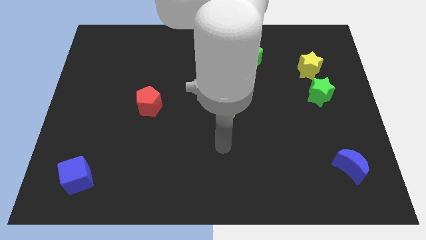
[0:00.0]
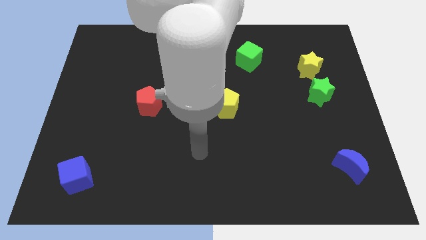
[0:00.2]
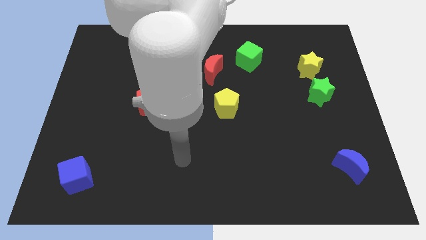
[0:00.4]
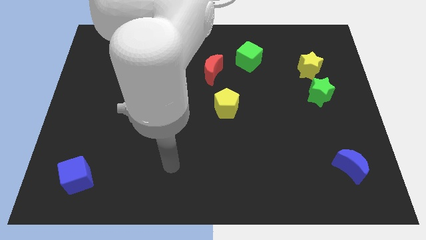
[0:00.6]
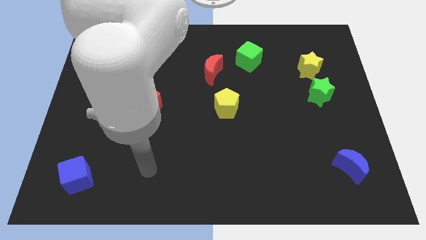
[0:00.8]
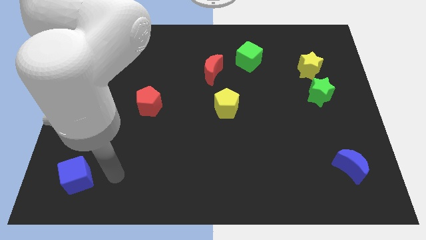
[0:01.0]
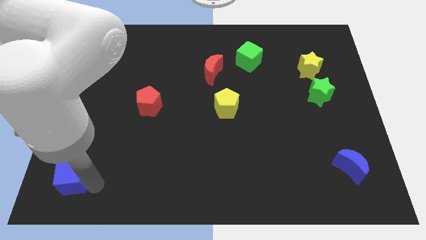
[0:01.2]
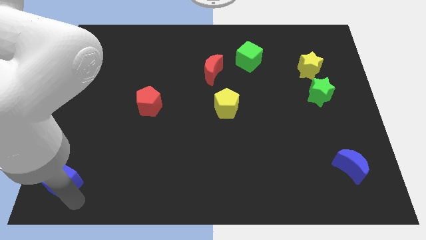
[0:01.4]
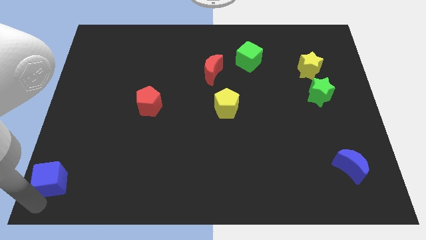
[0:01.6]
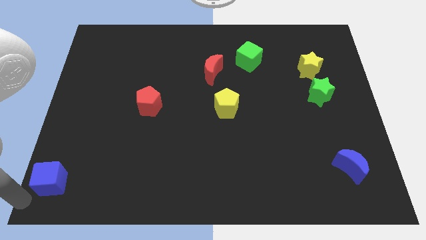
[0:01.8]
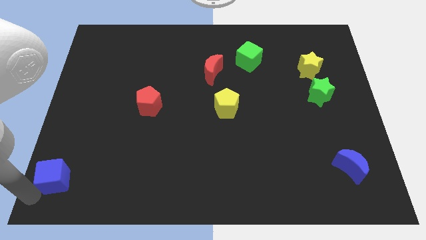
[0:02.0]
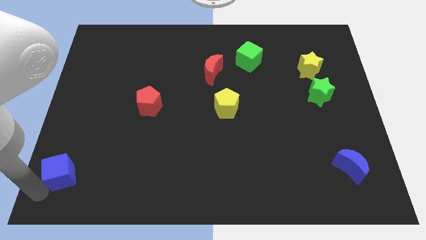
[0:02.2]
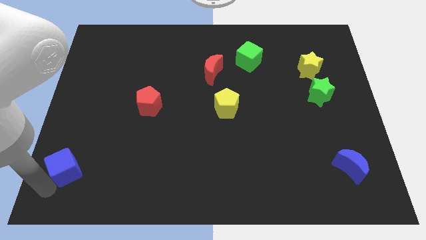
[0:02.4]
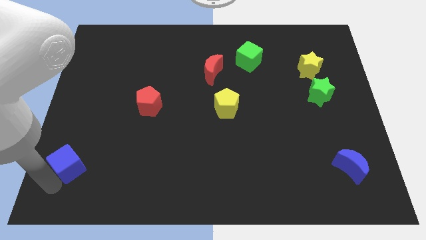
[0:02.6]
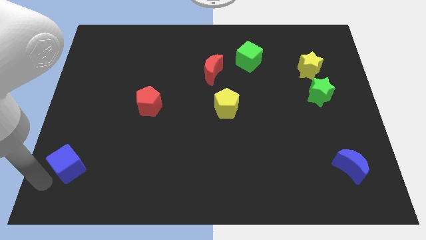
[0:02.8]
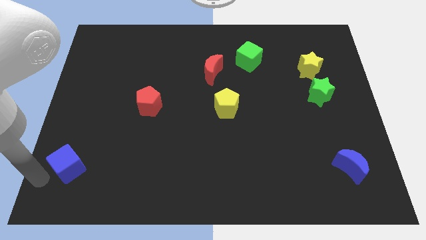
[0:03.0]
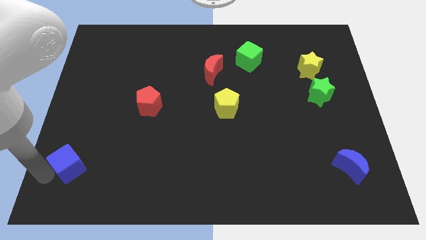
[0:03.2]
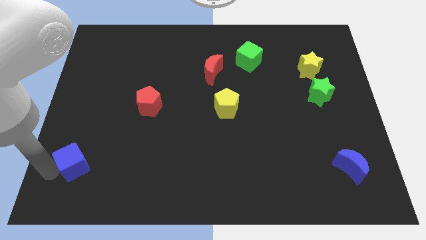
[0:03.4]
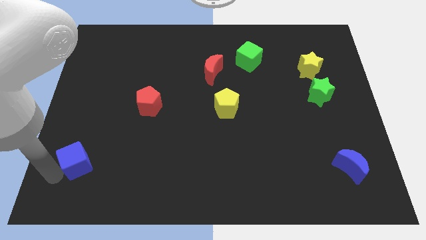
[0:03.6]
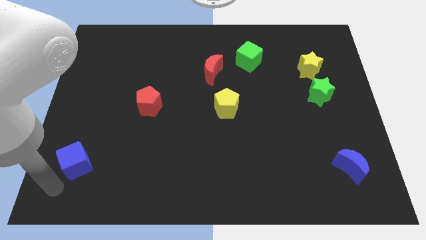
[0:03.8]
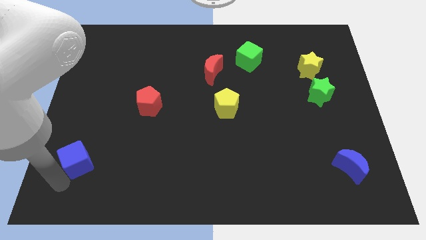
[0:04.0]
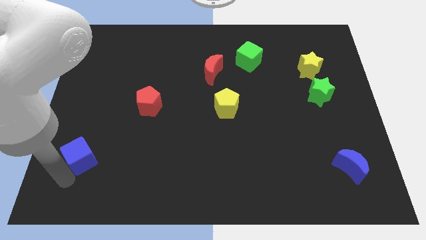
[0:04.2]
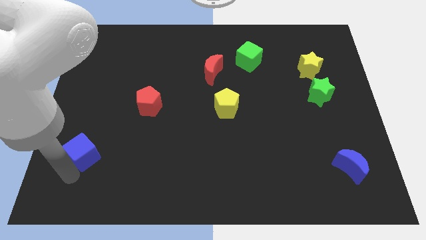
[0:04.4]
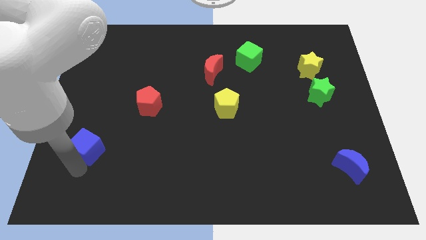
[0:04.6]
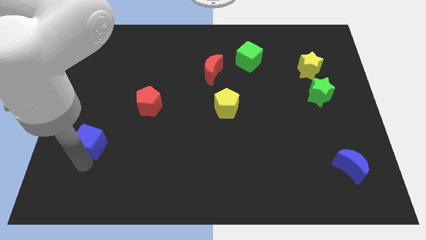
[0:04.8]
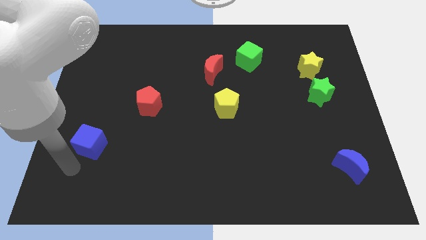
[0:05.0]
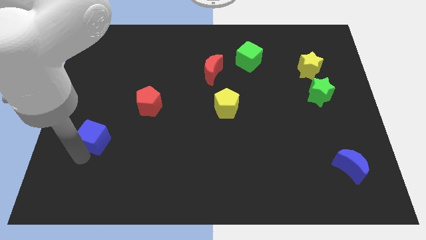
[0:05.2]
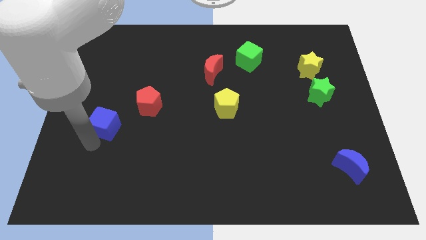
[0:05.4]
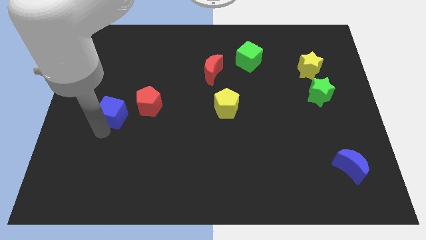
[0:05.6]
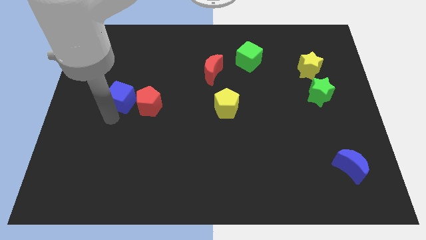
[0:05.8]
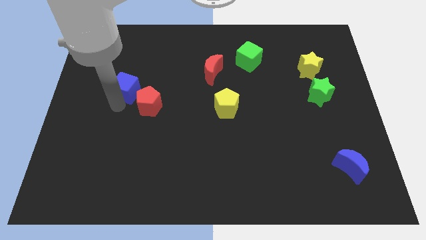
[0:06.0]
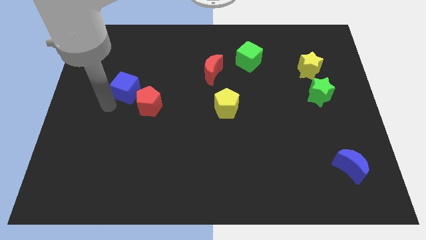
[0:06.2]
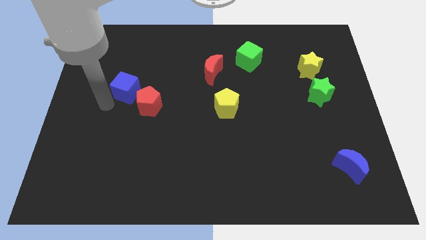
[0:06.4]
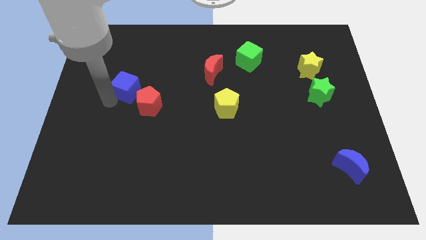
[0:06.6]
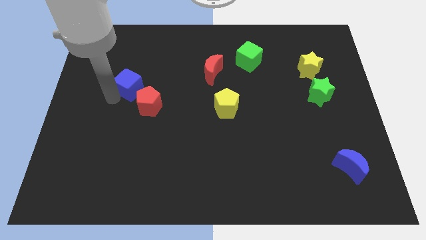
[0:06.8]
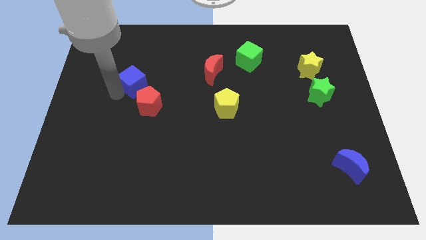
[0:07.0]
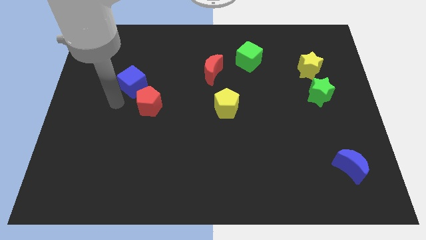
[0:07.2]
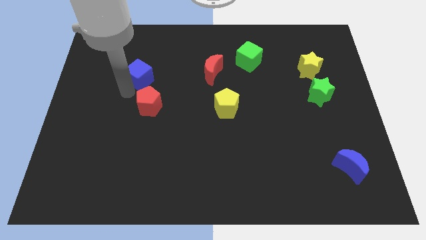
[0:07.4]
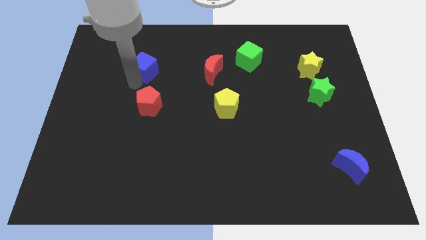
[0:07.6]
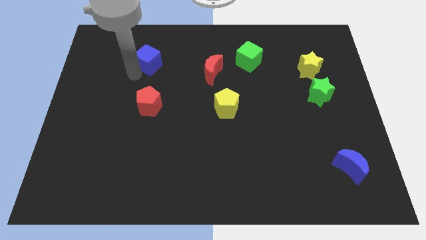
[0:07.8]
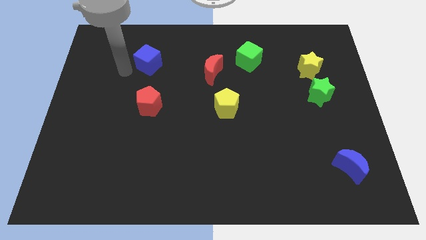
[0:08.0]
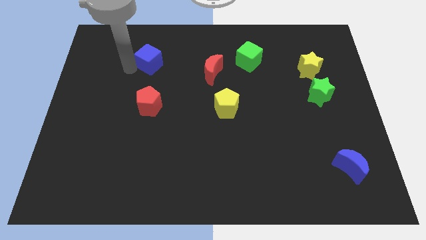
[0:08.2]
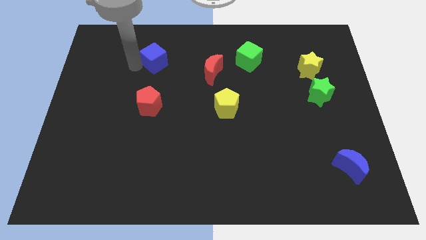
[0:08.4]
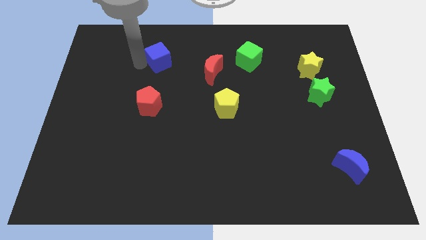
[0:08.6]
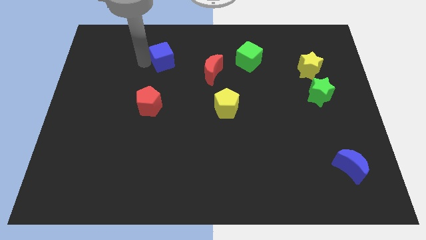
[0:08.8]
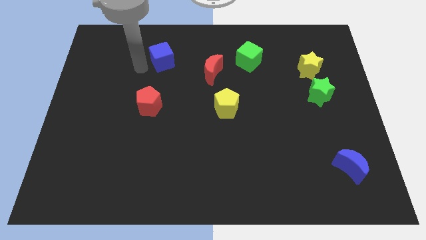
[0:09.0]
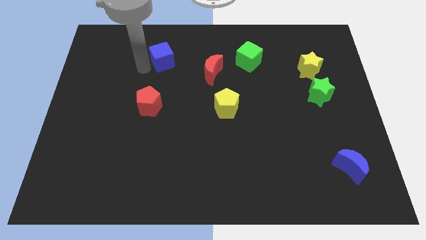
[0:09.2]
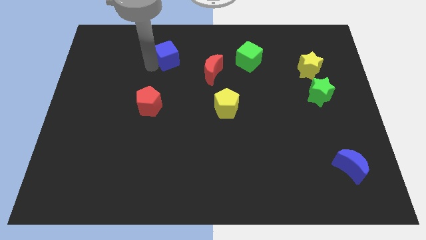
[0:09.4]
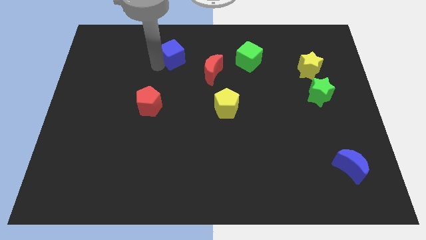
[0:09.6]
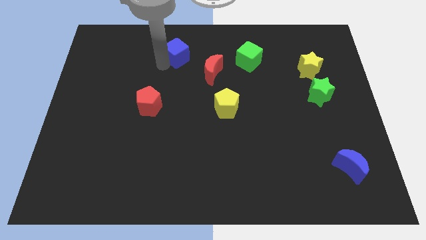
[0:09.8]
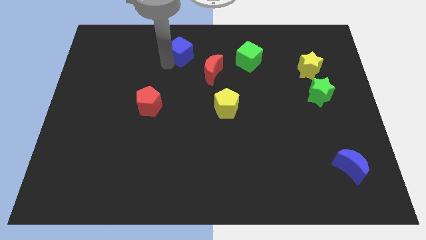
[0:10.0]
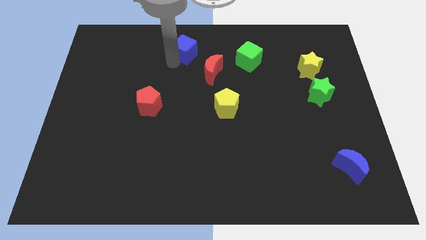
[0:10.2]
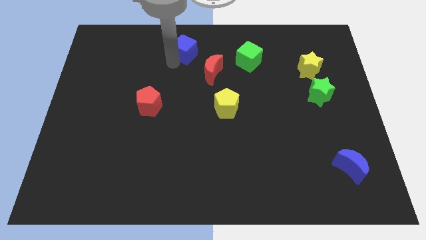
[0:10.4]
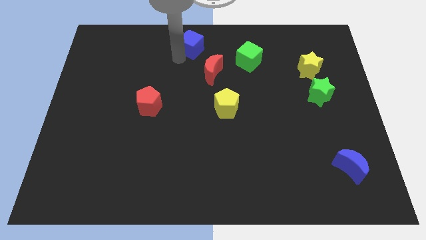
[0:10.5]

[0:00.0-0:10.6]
push the blue cube to the towards your base

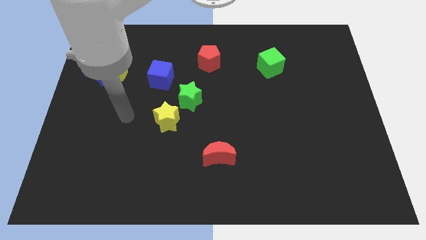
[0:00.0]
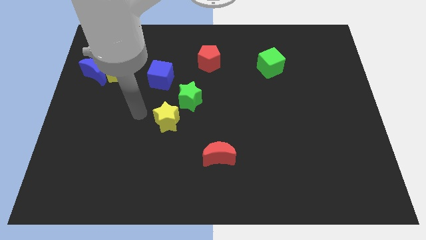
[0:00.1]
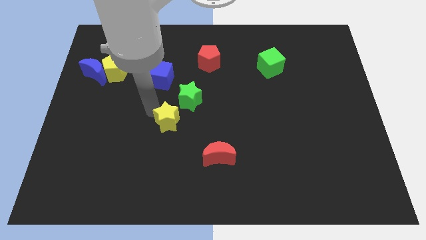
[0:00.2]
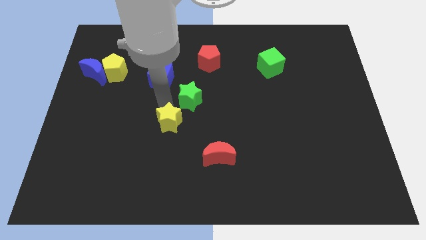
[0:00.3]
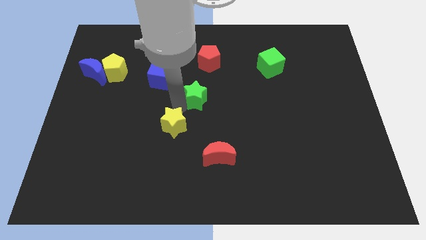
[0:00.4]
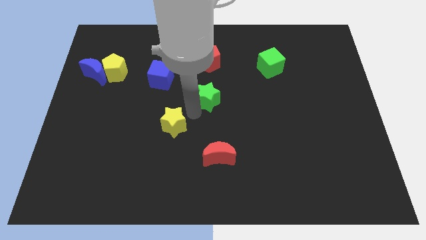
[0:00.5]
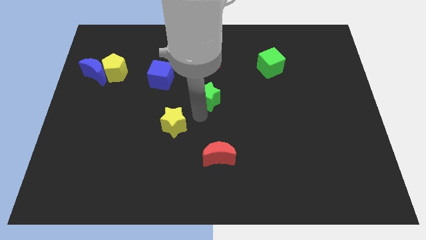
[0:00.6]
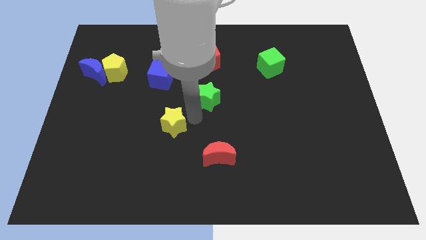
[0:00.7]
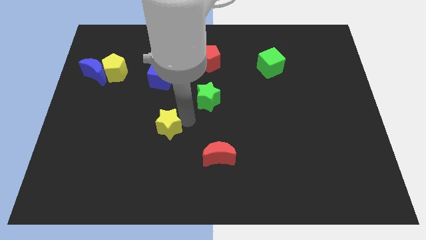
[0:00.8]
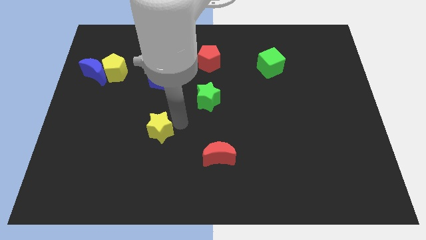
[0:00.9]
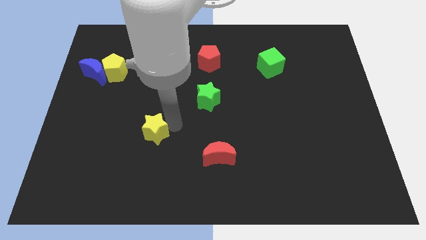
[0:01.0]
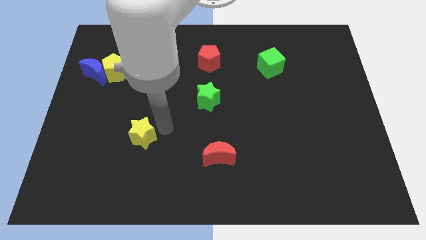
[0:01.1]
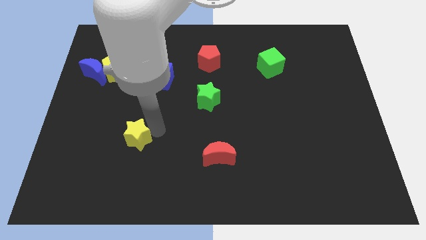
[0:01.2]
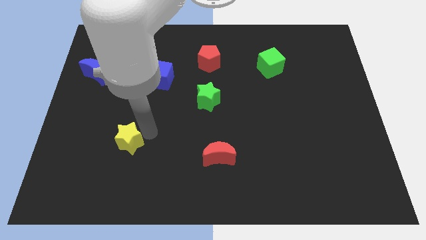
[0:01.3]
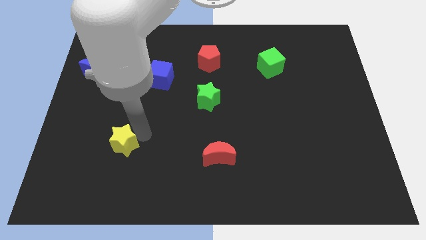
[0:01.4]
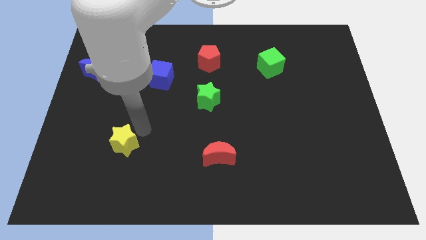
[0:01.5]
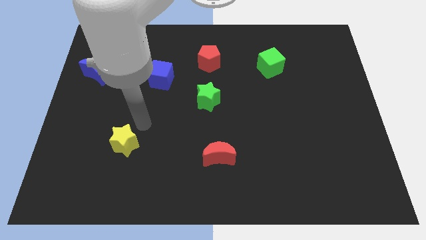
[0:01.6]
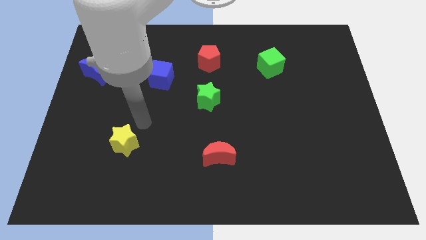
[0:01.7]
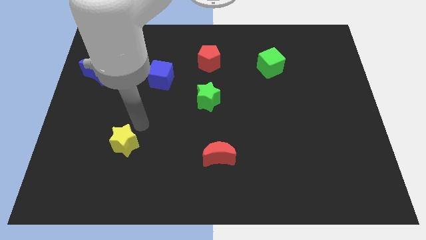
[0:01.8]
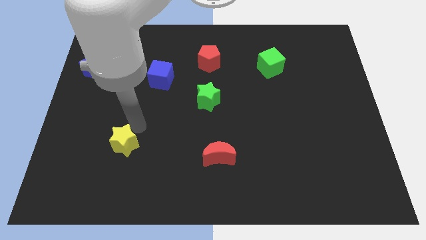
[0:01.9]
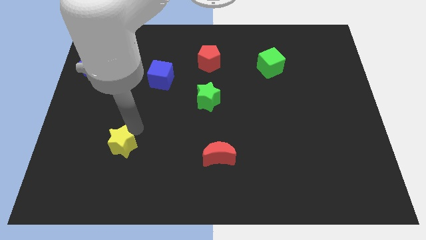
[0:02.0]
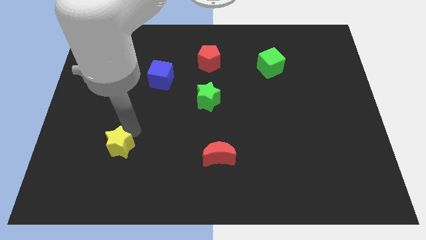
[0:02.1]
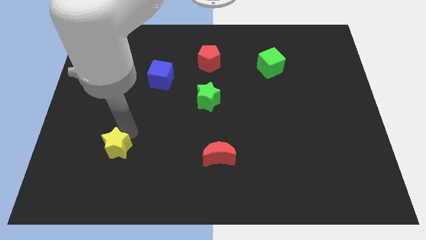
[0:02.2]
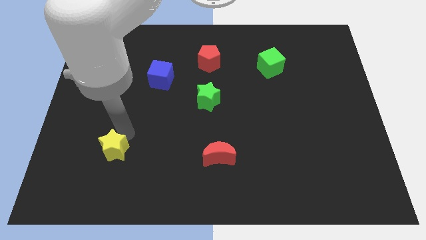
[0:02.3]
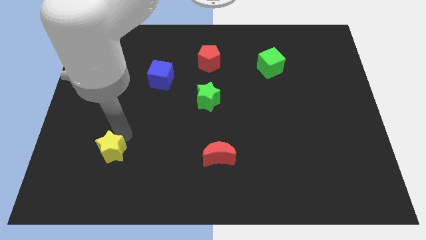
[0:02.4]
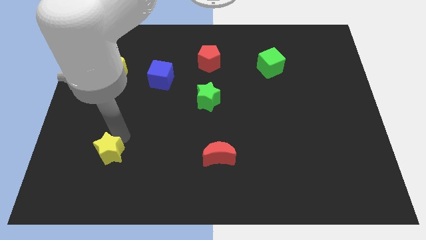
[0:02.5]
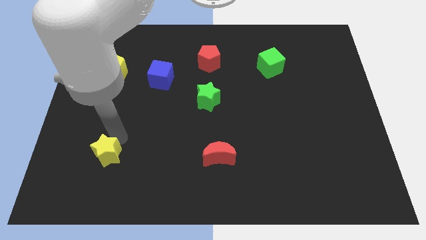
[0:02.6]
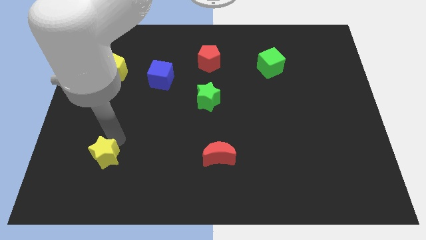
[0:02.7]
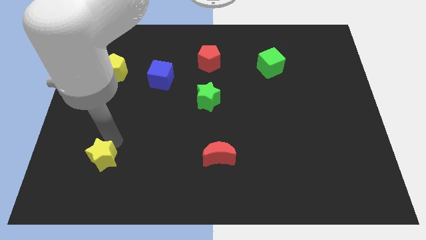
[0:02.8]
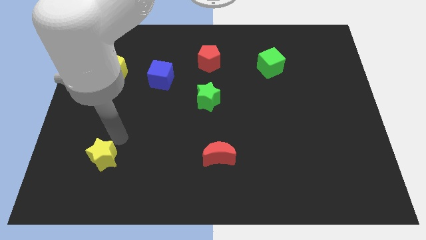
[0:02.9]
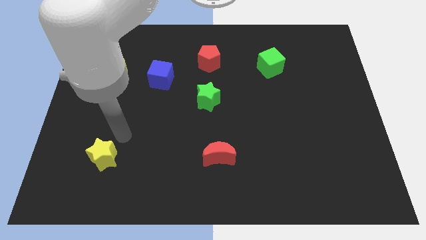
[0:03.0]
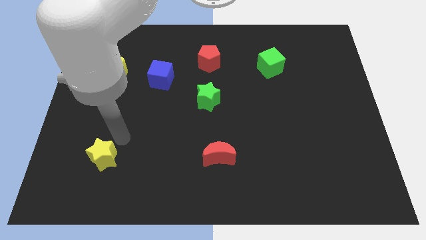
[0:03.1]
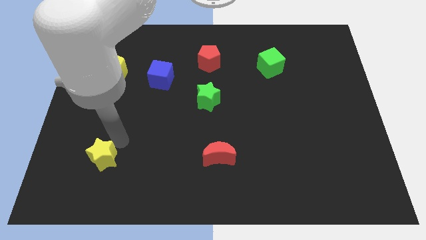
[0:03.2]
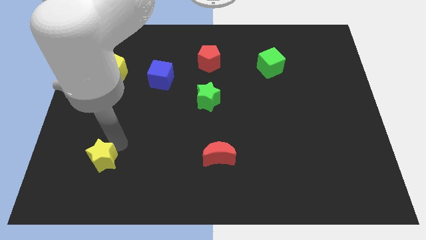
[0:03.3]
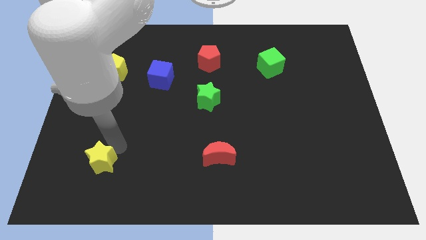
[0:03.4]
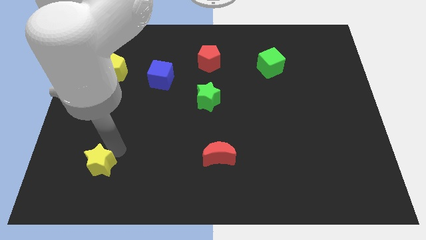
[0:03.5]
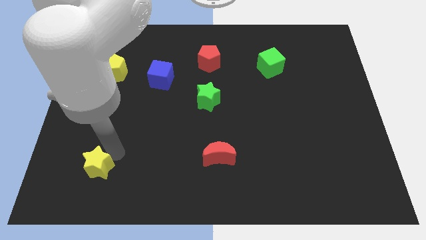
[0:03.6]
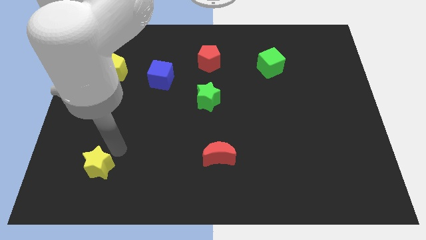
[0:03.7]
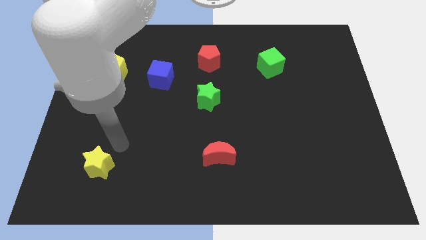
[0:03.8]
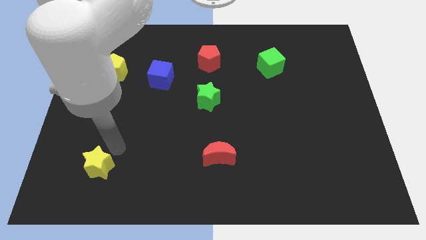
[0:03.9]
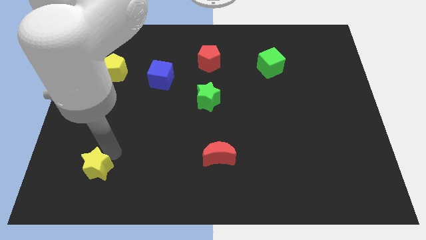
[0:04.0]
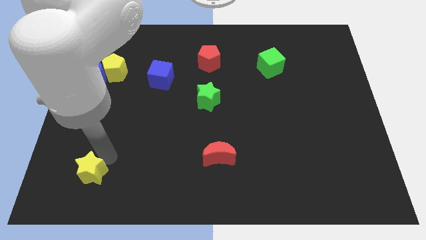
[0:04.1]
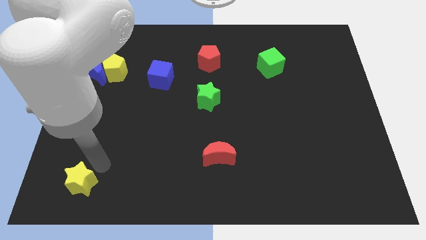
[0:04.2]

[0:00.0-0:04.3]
move the yellow star to the lower left corner
